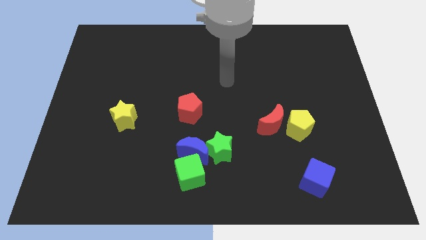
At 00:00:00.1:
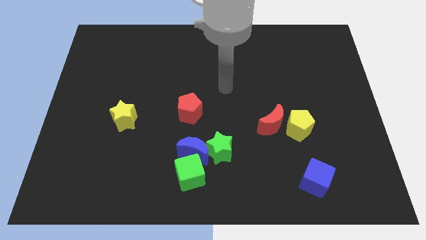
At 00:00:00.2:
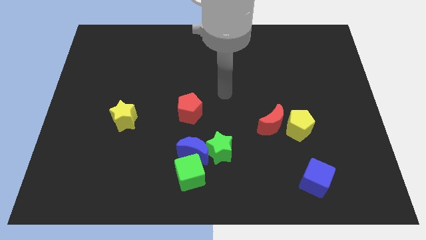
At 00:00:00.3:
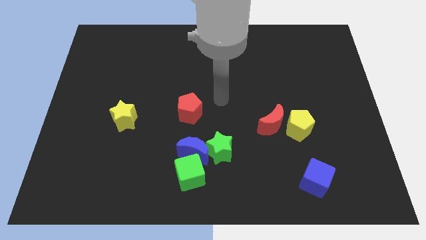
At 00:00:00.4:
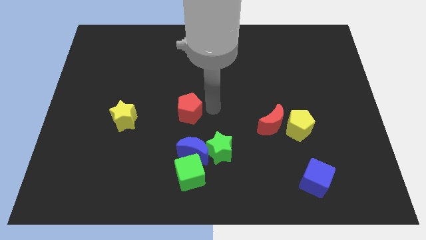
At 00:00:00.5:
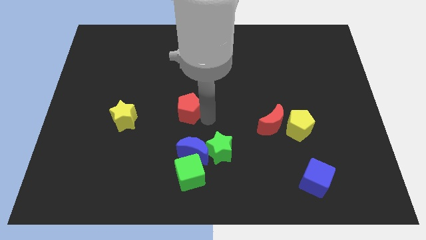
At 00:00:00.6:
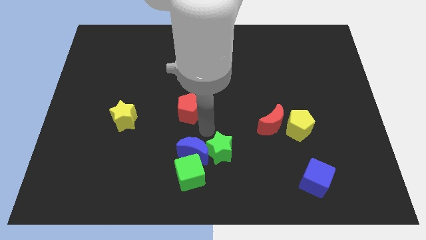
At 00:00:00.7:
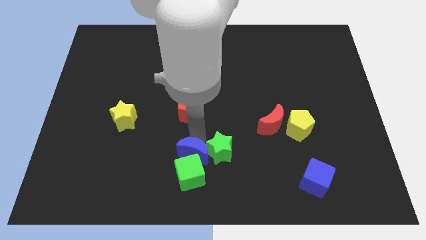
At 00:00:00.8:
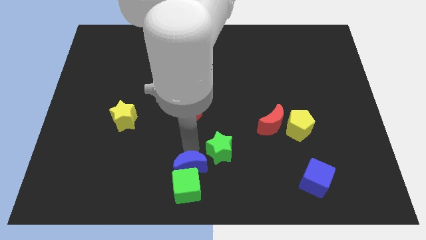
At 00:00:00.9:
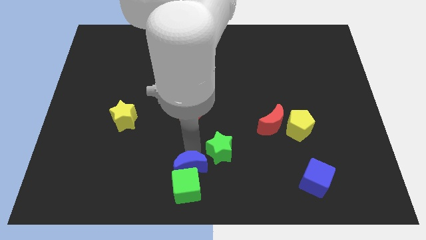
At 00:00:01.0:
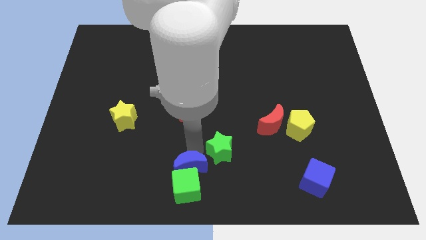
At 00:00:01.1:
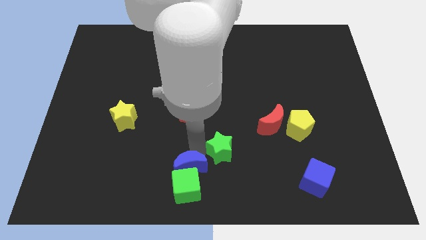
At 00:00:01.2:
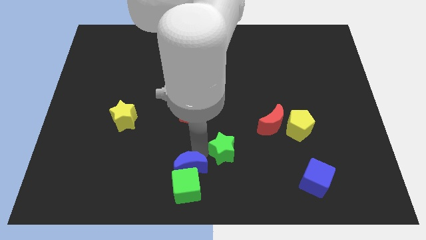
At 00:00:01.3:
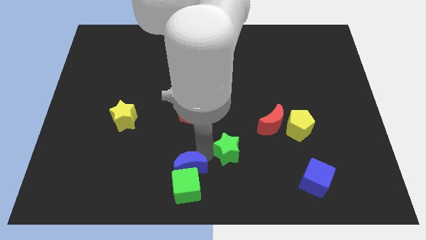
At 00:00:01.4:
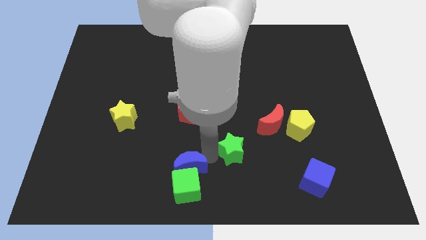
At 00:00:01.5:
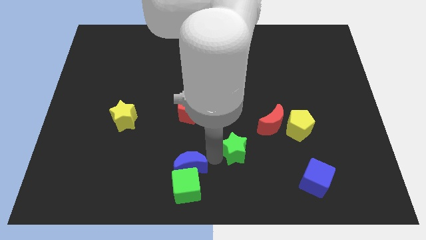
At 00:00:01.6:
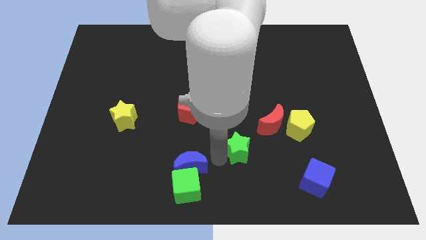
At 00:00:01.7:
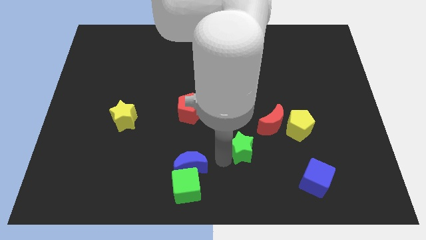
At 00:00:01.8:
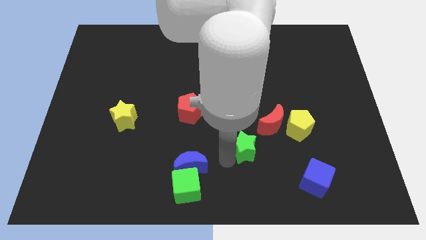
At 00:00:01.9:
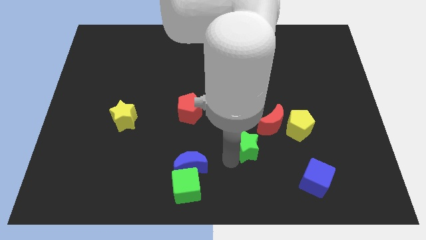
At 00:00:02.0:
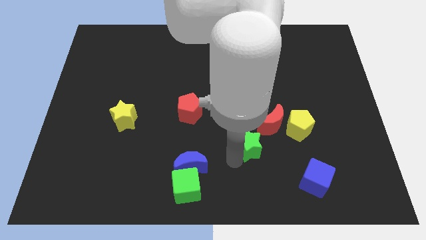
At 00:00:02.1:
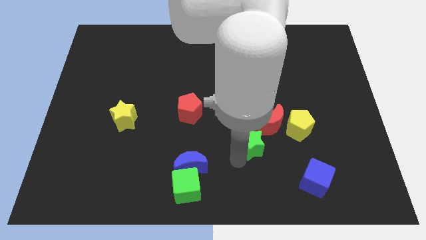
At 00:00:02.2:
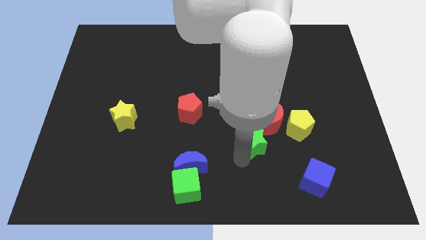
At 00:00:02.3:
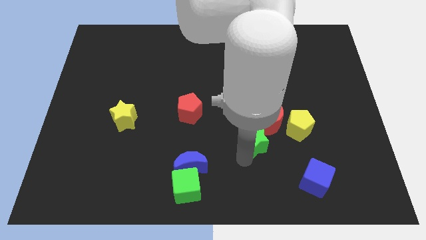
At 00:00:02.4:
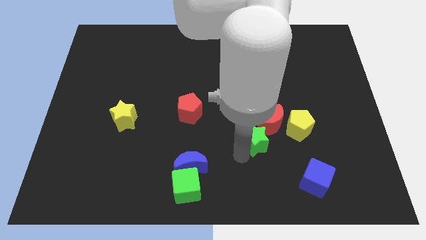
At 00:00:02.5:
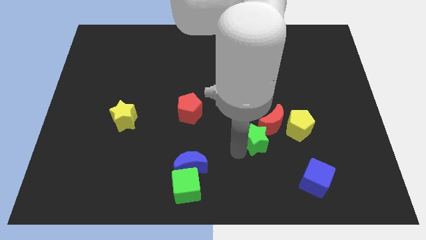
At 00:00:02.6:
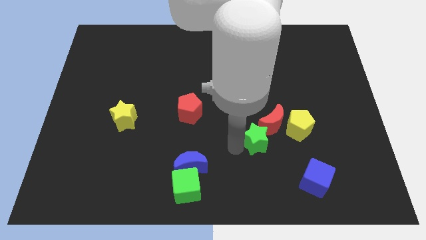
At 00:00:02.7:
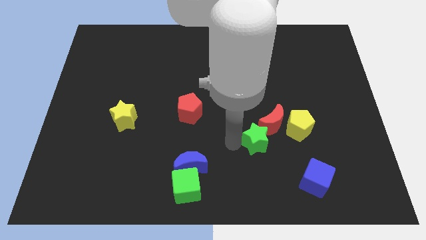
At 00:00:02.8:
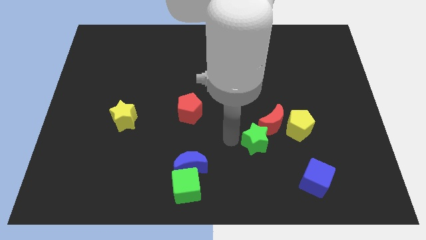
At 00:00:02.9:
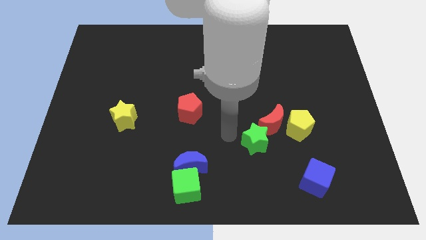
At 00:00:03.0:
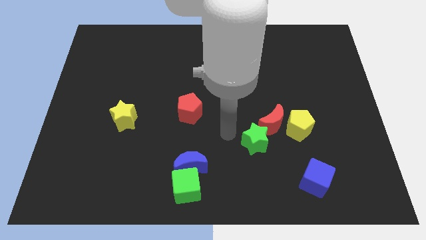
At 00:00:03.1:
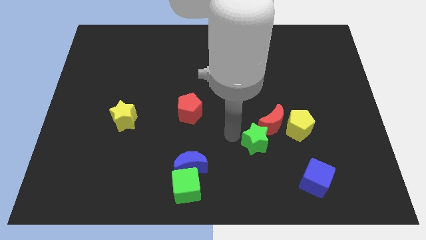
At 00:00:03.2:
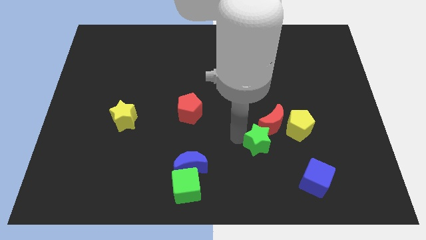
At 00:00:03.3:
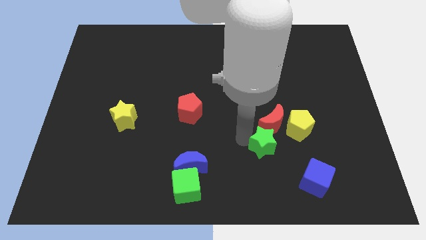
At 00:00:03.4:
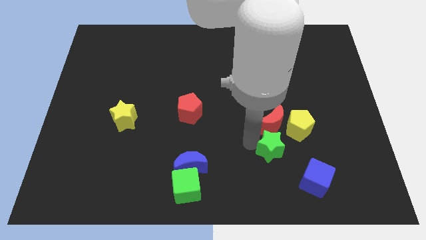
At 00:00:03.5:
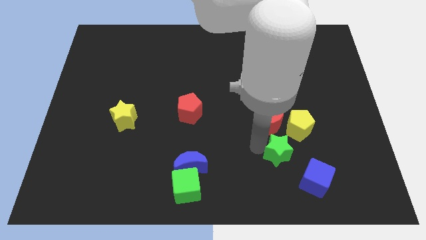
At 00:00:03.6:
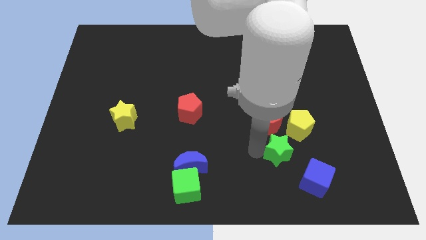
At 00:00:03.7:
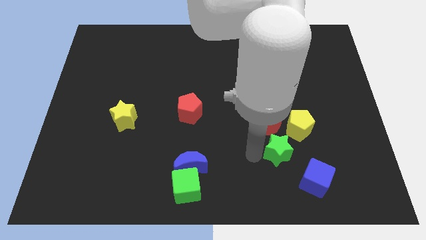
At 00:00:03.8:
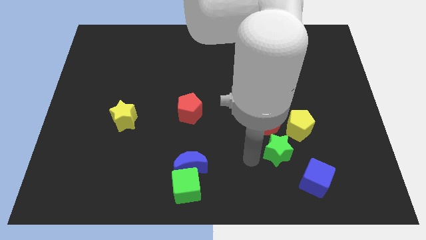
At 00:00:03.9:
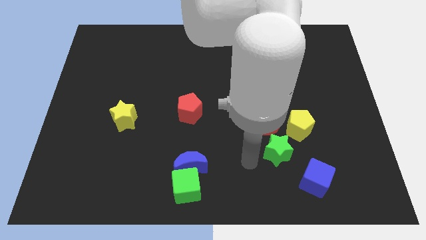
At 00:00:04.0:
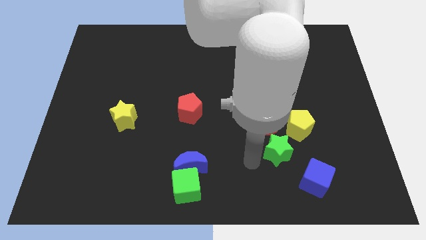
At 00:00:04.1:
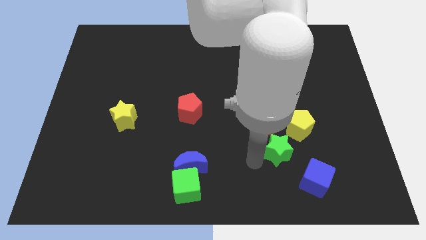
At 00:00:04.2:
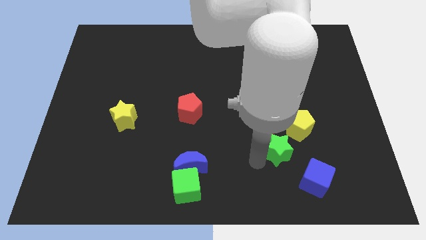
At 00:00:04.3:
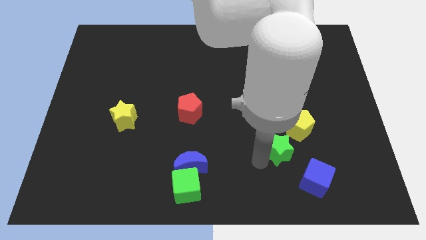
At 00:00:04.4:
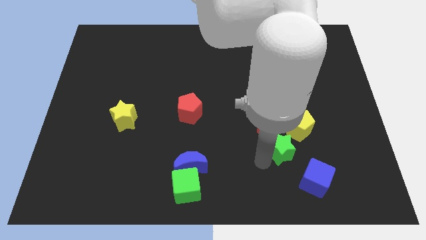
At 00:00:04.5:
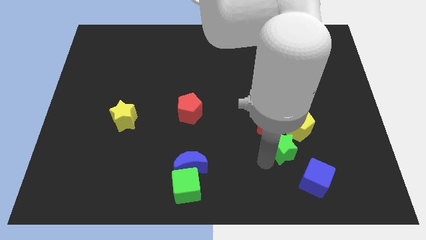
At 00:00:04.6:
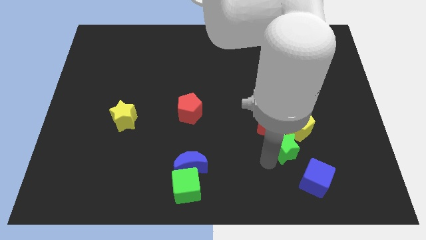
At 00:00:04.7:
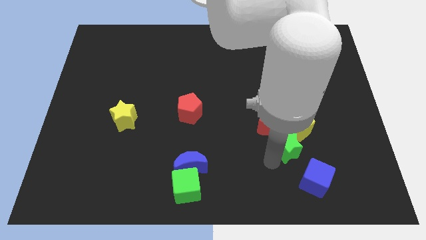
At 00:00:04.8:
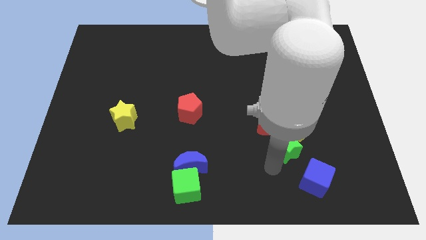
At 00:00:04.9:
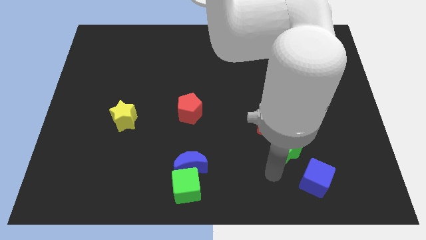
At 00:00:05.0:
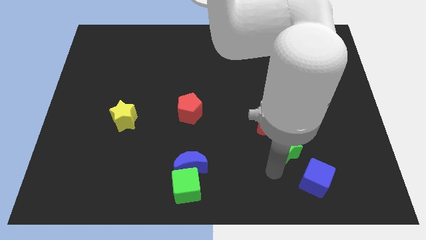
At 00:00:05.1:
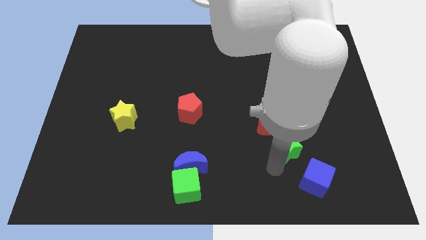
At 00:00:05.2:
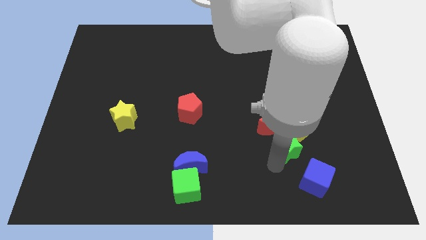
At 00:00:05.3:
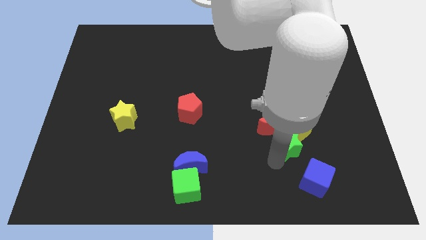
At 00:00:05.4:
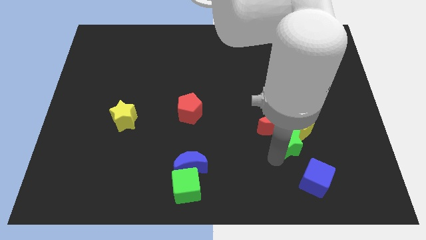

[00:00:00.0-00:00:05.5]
put the green star towards the yellow pentagon

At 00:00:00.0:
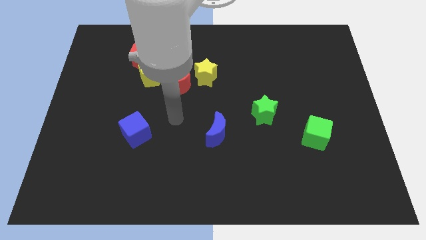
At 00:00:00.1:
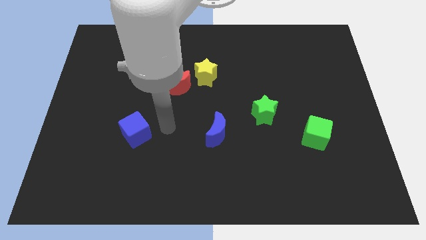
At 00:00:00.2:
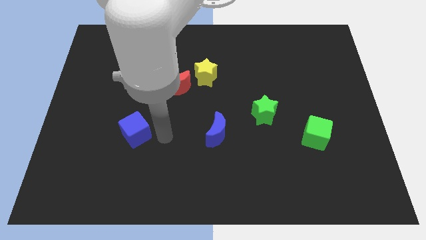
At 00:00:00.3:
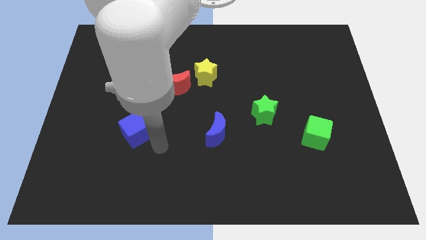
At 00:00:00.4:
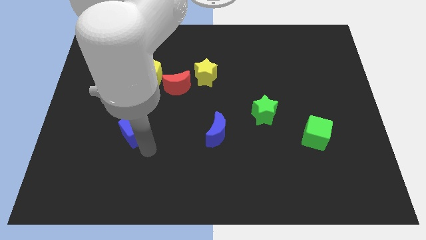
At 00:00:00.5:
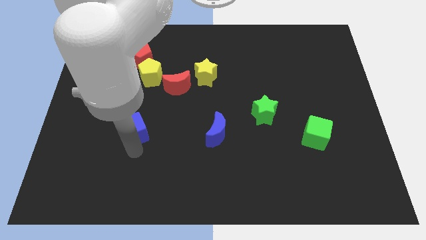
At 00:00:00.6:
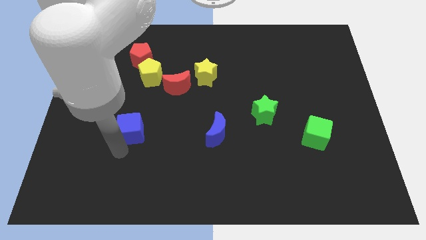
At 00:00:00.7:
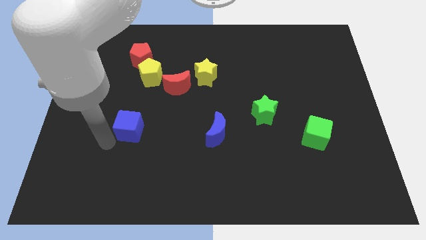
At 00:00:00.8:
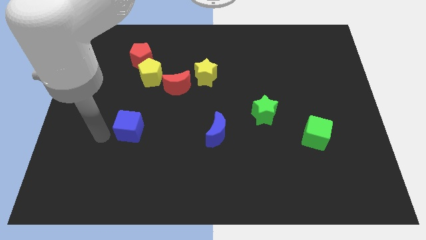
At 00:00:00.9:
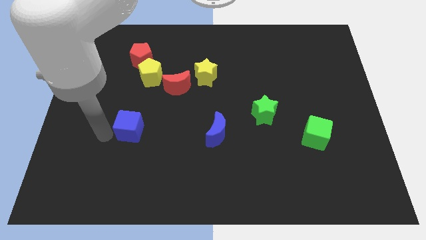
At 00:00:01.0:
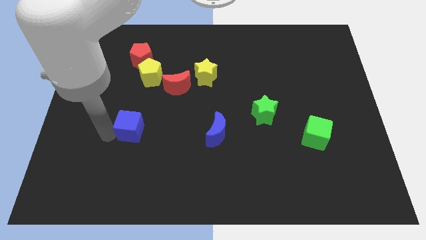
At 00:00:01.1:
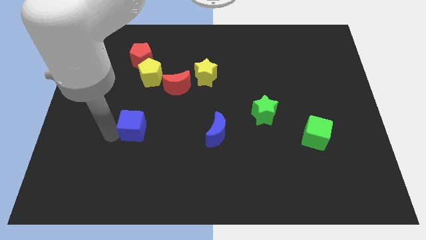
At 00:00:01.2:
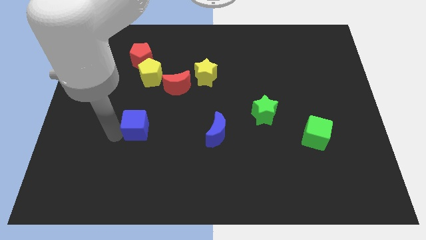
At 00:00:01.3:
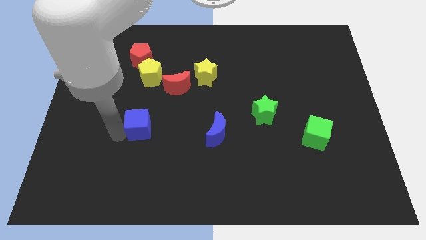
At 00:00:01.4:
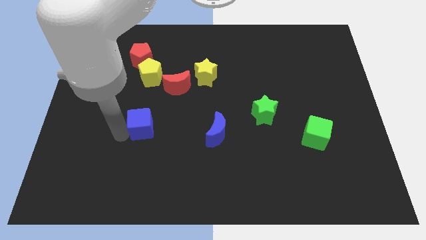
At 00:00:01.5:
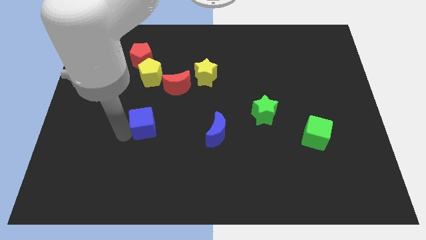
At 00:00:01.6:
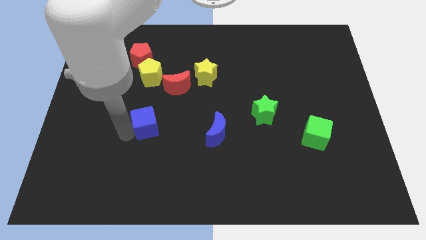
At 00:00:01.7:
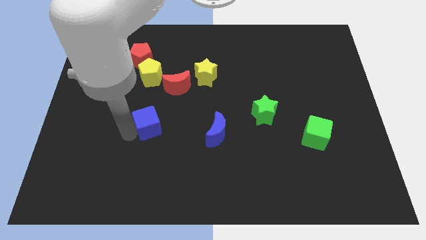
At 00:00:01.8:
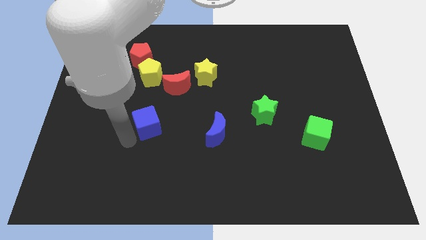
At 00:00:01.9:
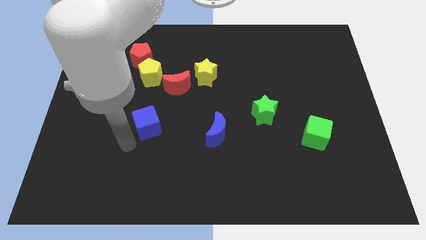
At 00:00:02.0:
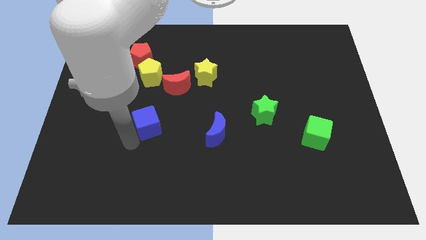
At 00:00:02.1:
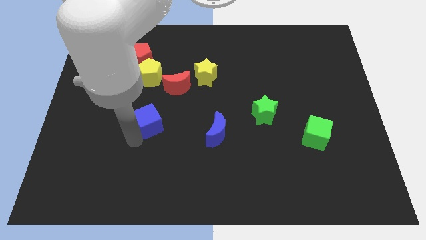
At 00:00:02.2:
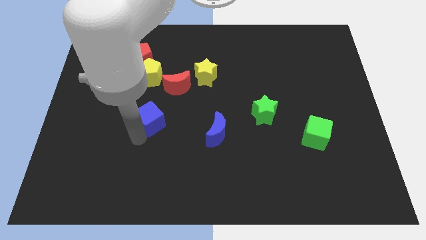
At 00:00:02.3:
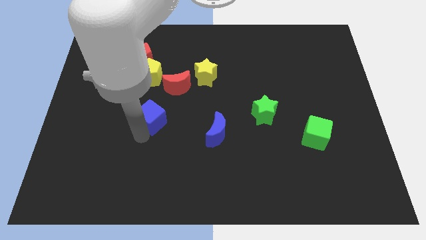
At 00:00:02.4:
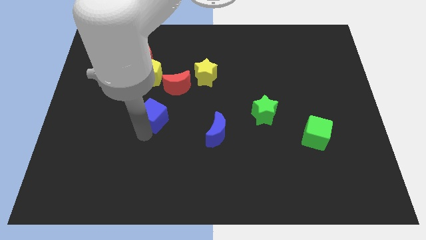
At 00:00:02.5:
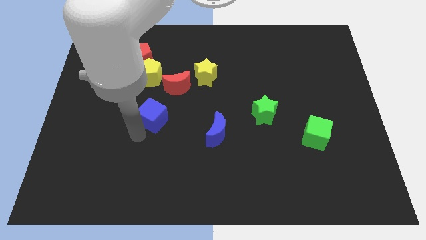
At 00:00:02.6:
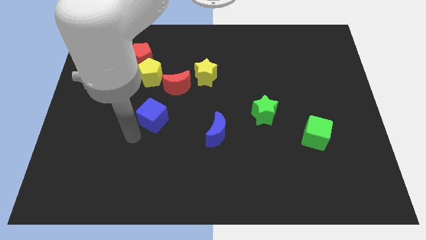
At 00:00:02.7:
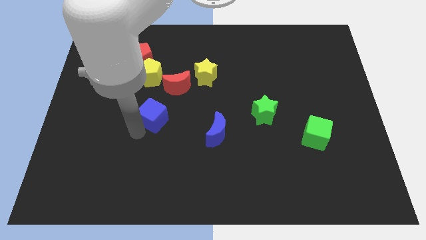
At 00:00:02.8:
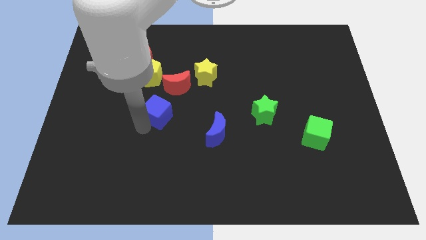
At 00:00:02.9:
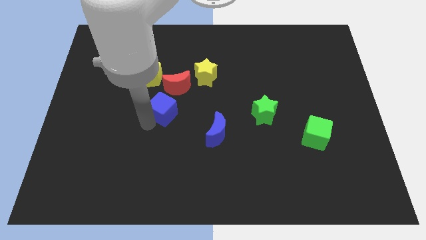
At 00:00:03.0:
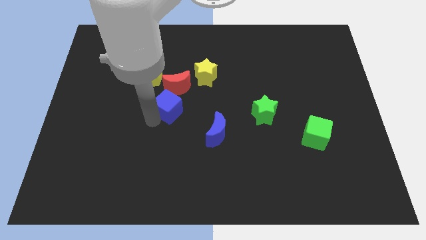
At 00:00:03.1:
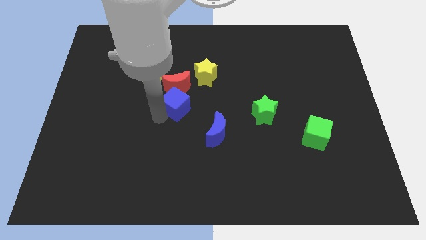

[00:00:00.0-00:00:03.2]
slide the blue cube close to the red moon
